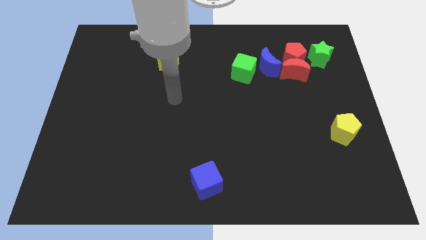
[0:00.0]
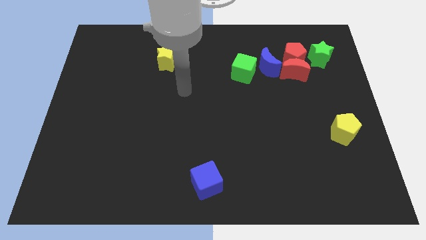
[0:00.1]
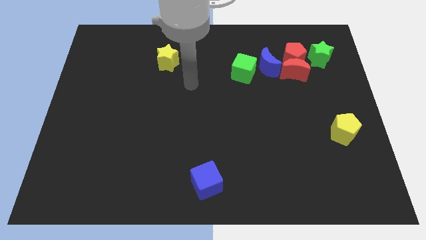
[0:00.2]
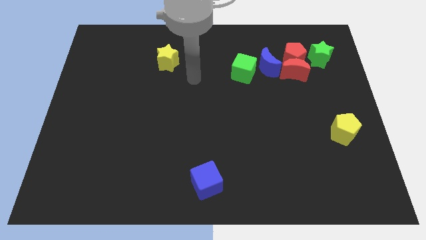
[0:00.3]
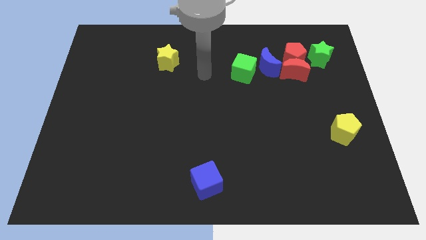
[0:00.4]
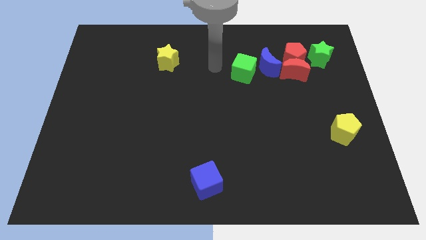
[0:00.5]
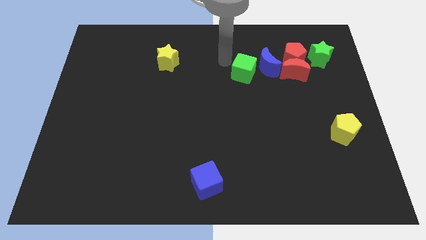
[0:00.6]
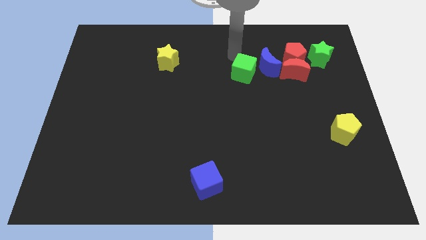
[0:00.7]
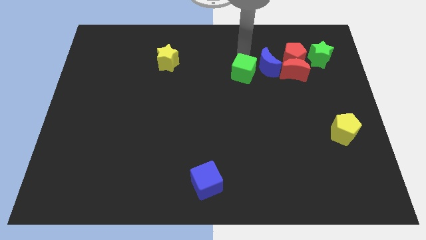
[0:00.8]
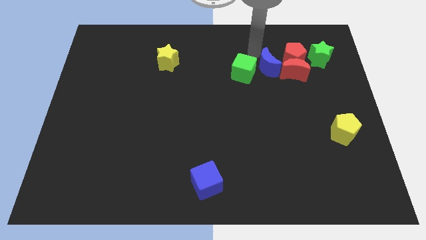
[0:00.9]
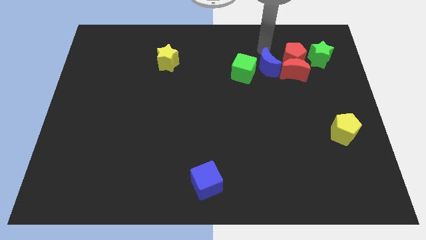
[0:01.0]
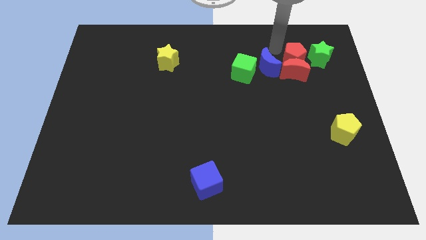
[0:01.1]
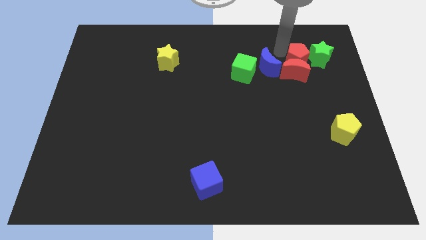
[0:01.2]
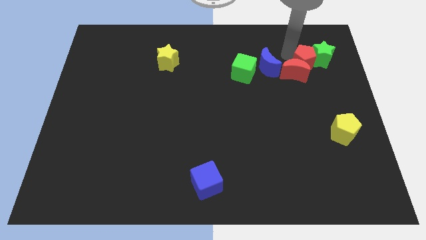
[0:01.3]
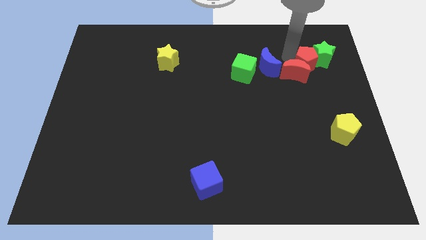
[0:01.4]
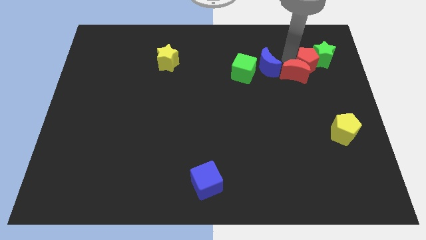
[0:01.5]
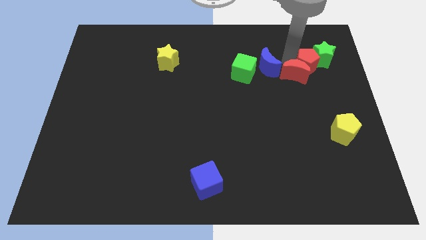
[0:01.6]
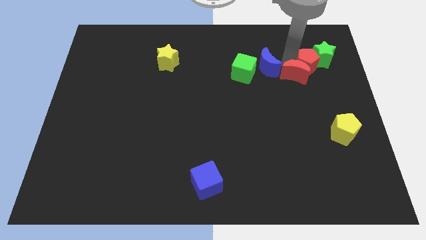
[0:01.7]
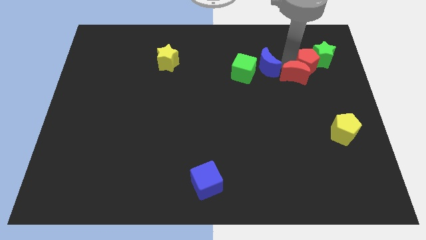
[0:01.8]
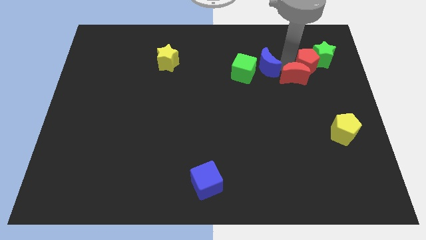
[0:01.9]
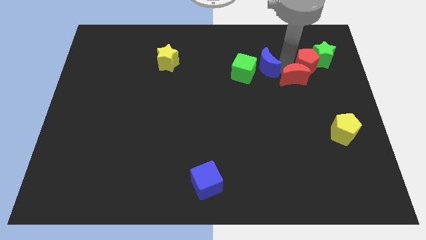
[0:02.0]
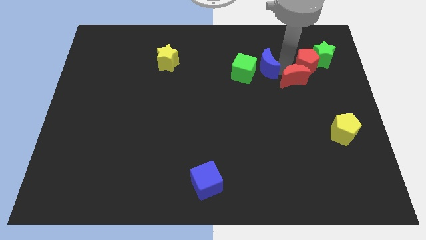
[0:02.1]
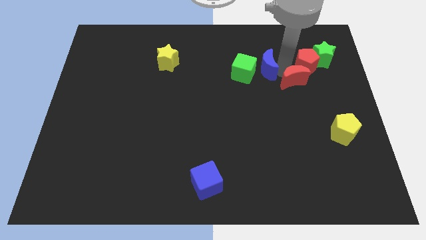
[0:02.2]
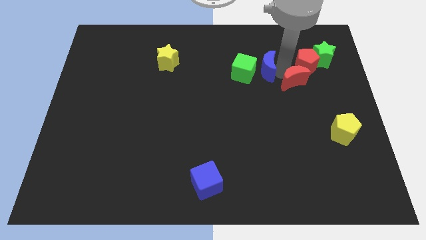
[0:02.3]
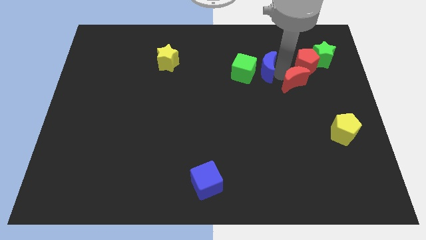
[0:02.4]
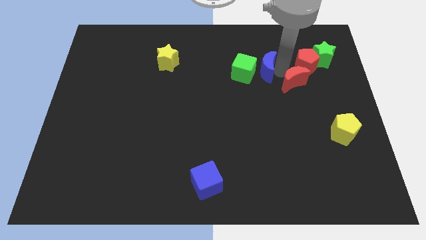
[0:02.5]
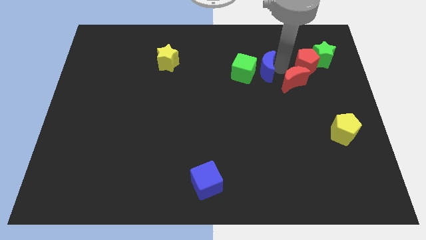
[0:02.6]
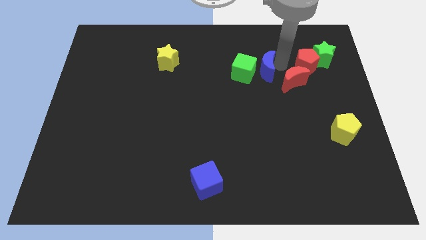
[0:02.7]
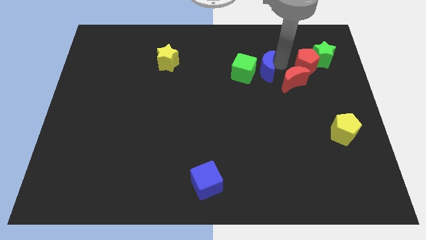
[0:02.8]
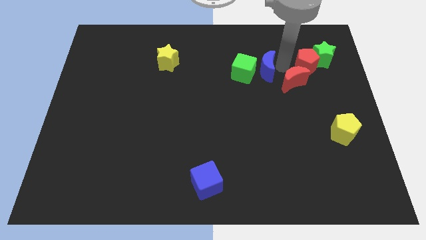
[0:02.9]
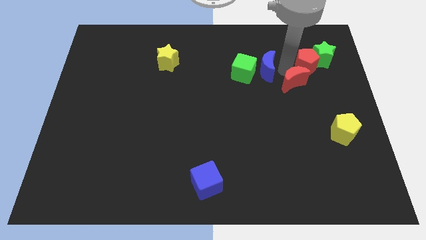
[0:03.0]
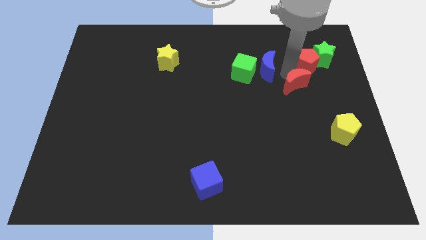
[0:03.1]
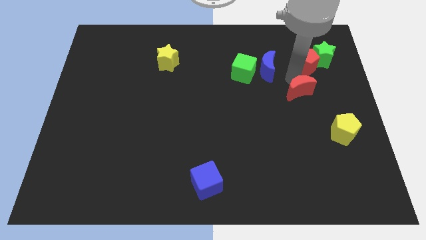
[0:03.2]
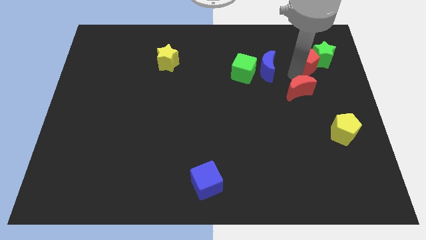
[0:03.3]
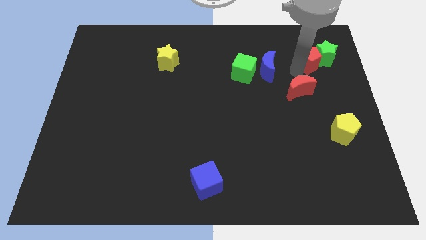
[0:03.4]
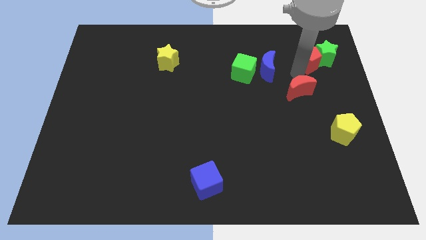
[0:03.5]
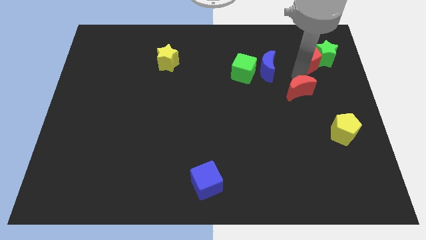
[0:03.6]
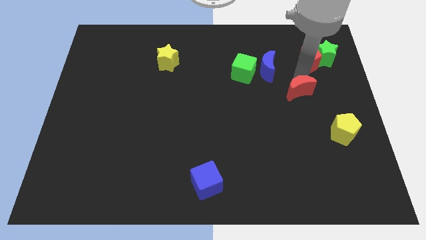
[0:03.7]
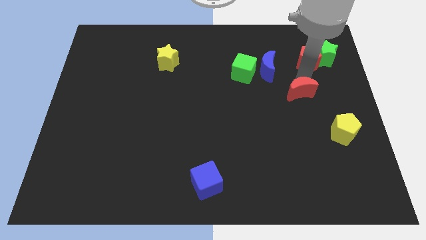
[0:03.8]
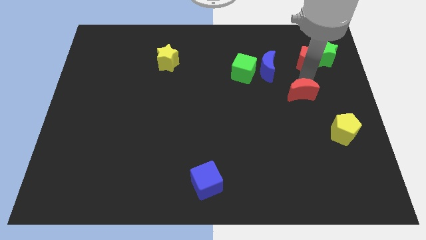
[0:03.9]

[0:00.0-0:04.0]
slightly push the red moon down

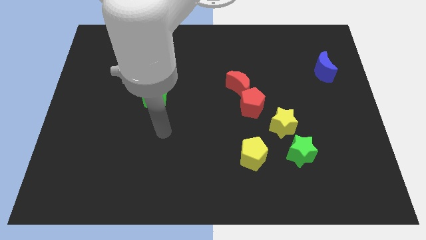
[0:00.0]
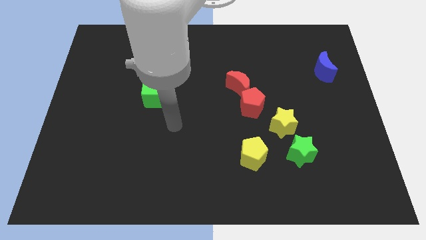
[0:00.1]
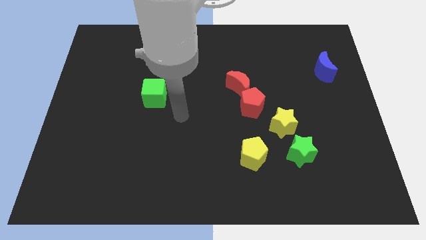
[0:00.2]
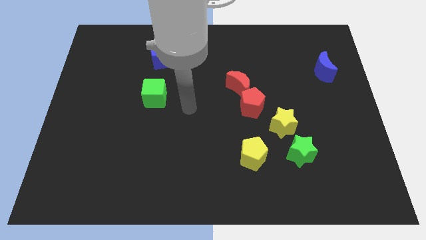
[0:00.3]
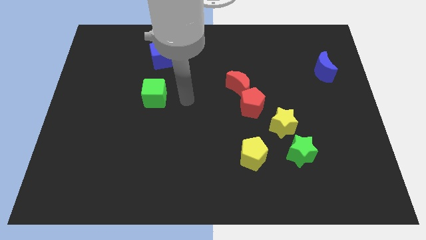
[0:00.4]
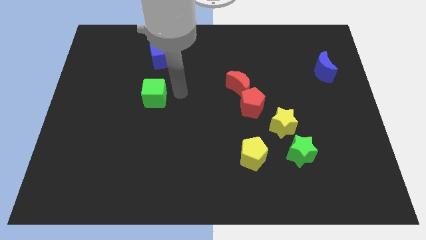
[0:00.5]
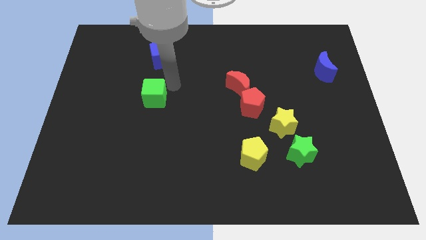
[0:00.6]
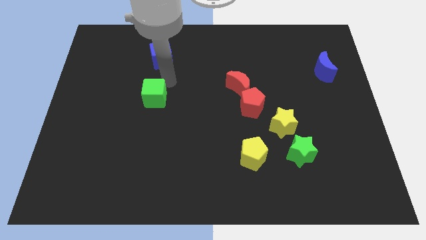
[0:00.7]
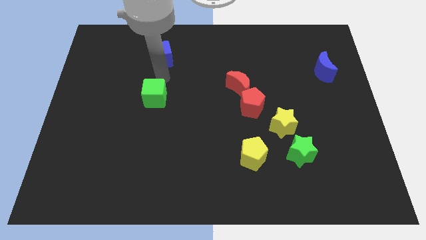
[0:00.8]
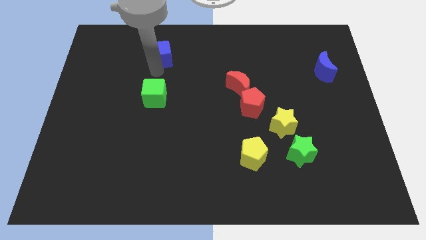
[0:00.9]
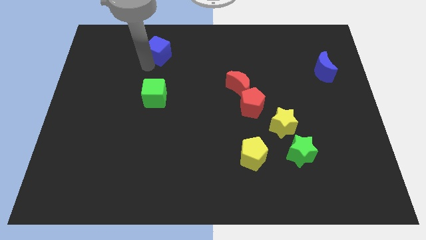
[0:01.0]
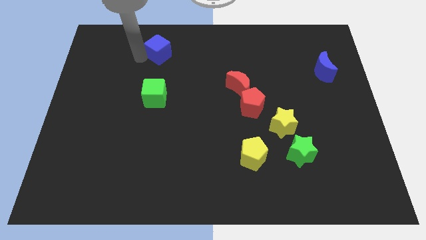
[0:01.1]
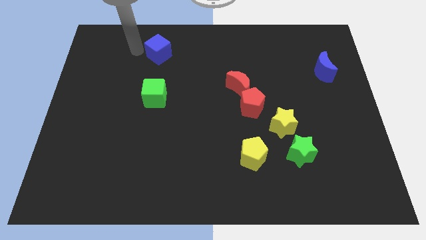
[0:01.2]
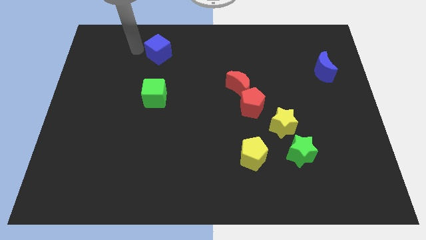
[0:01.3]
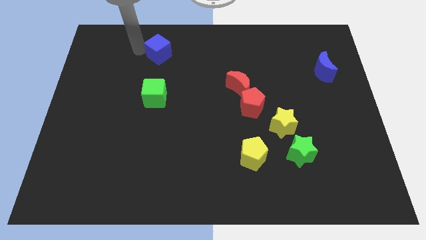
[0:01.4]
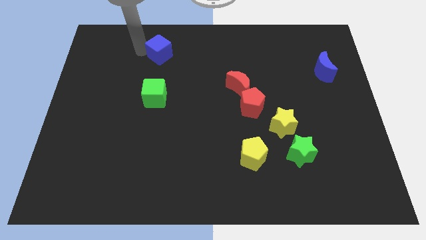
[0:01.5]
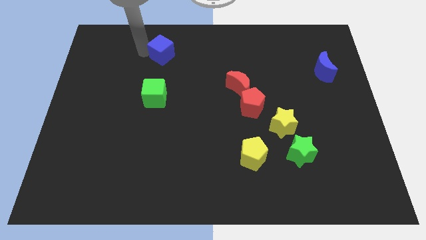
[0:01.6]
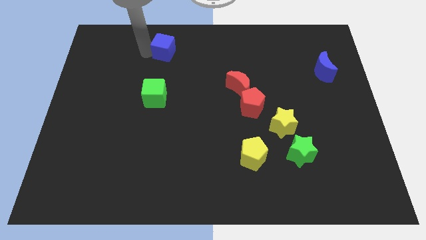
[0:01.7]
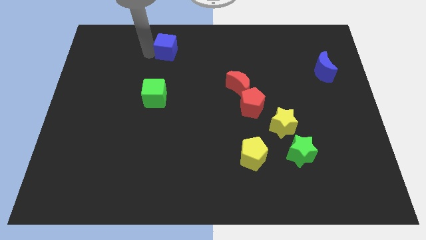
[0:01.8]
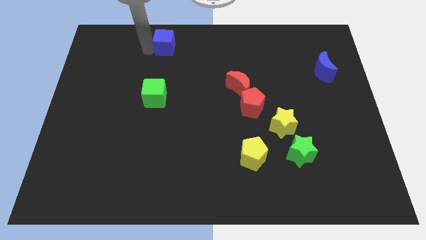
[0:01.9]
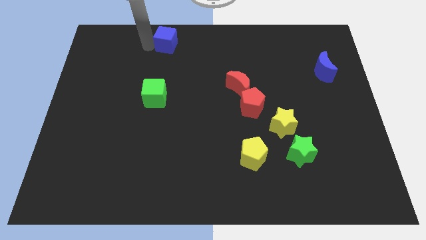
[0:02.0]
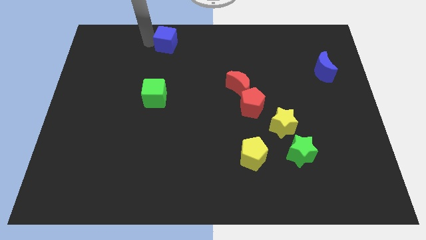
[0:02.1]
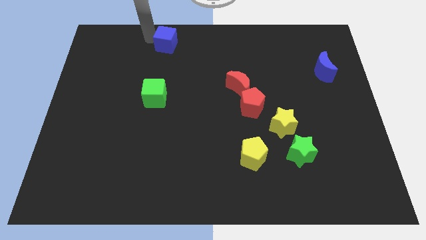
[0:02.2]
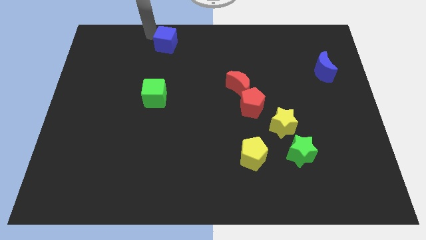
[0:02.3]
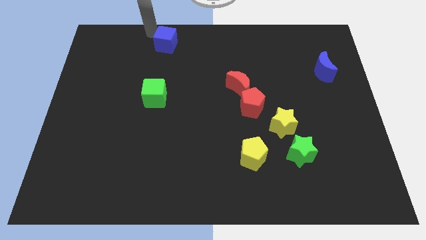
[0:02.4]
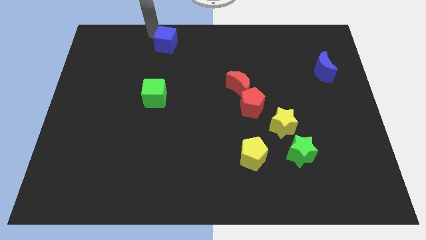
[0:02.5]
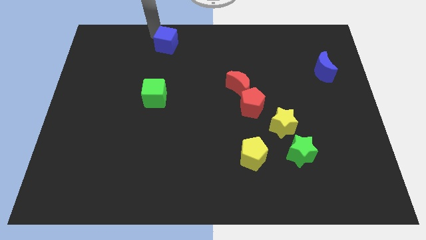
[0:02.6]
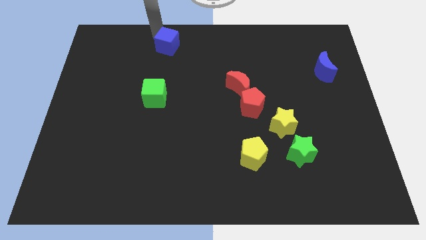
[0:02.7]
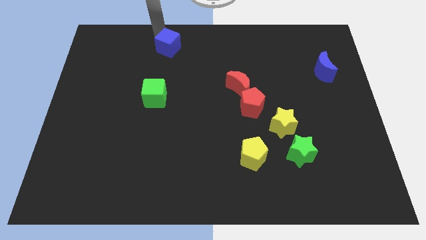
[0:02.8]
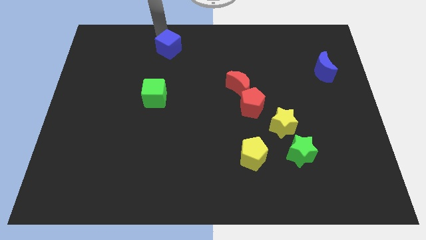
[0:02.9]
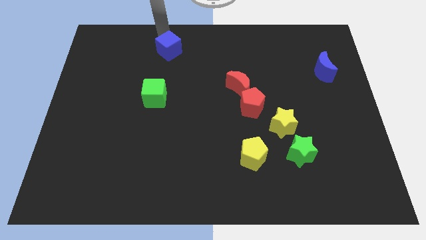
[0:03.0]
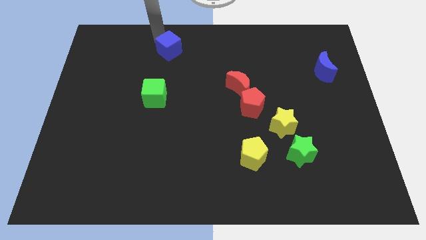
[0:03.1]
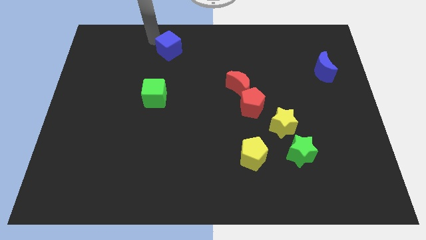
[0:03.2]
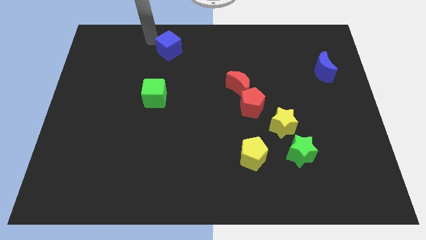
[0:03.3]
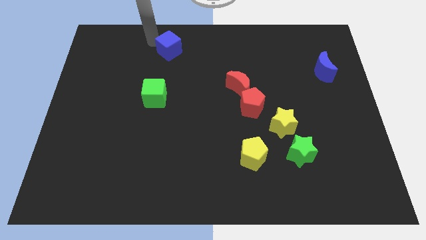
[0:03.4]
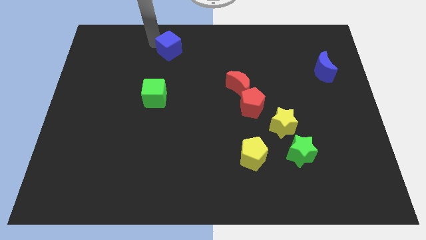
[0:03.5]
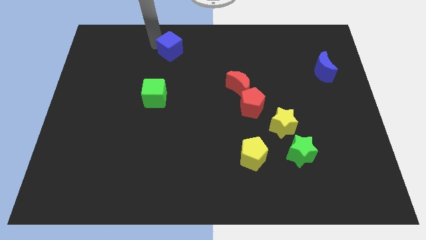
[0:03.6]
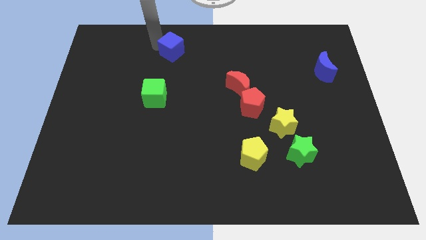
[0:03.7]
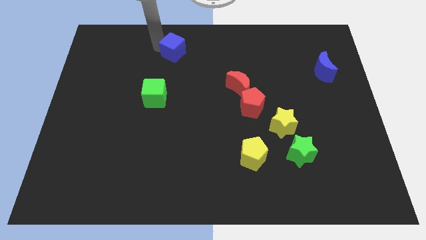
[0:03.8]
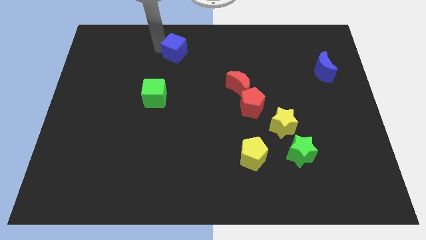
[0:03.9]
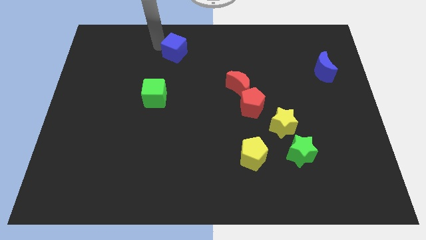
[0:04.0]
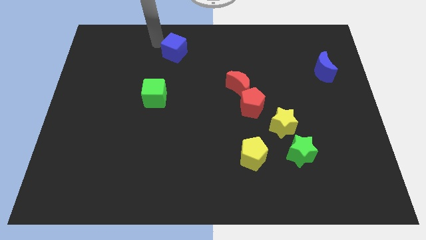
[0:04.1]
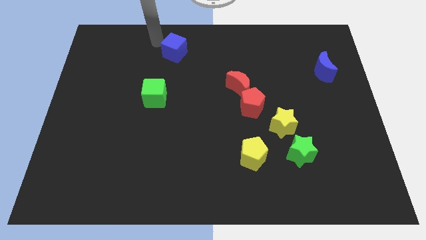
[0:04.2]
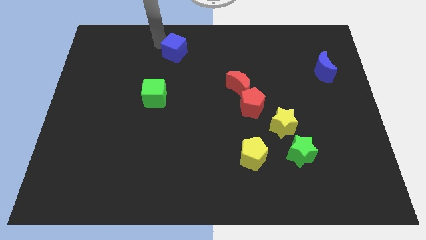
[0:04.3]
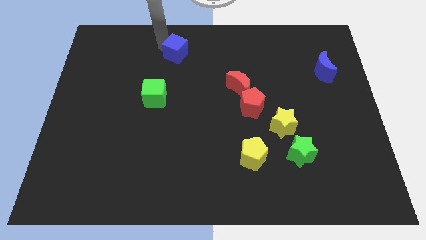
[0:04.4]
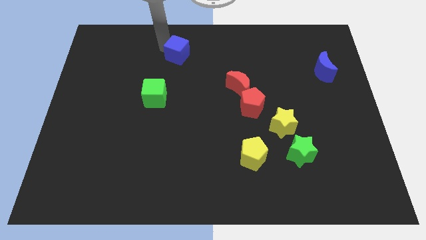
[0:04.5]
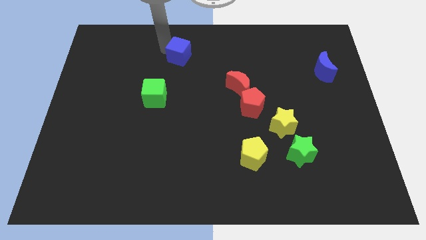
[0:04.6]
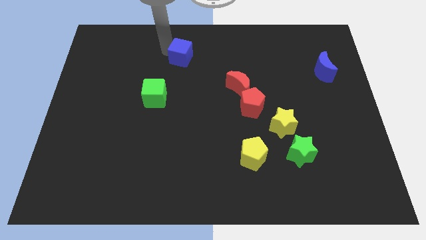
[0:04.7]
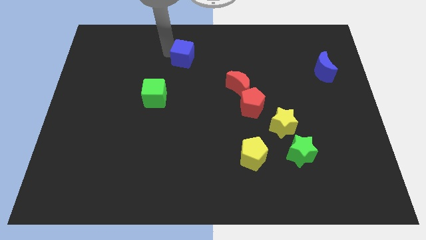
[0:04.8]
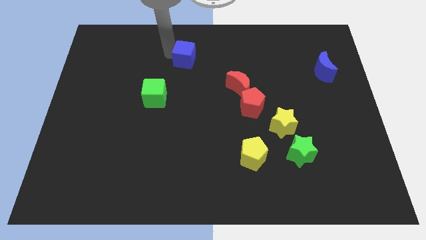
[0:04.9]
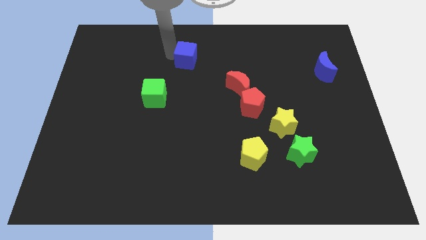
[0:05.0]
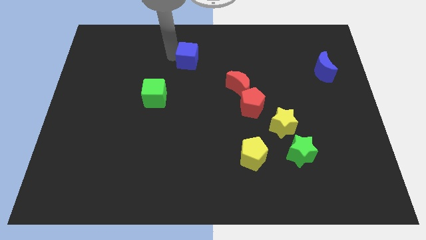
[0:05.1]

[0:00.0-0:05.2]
push the blue cube right a little bit
